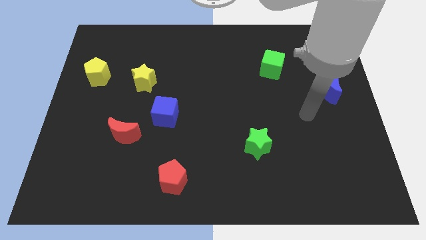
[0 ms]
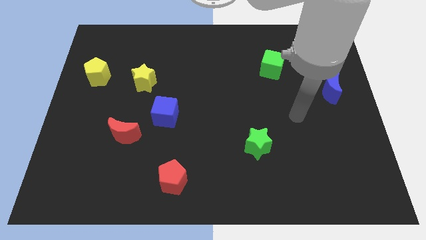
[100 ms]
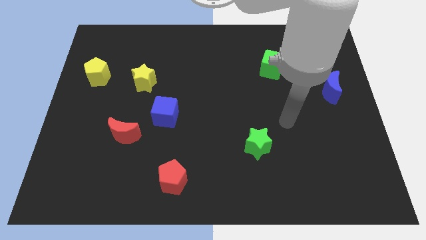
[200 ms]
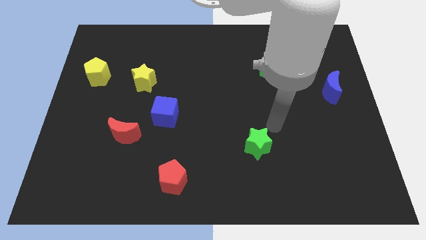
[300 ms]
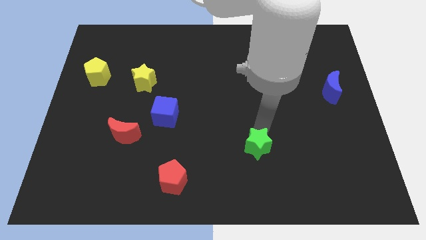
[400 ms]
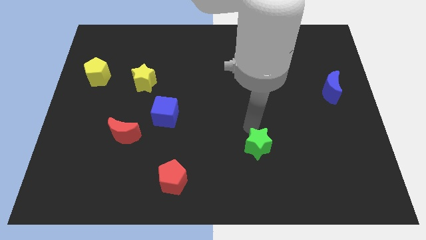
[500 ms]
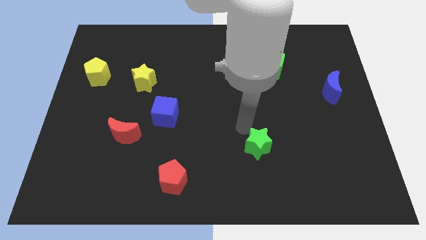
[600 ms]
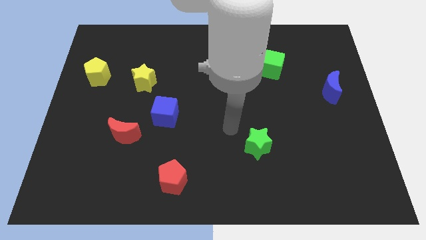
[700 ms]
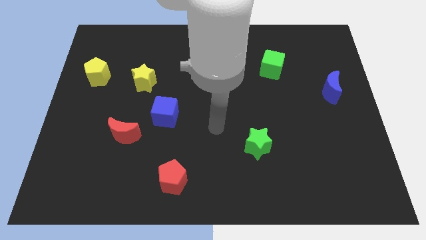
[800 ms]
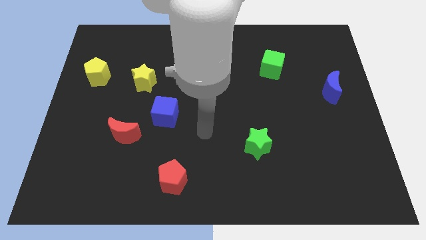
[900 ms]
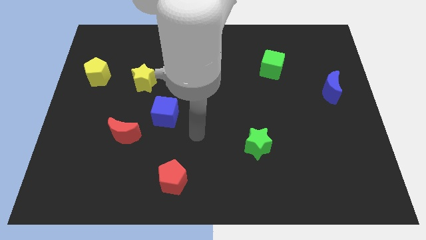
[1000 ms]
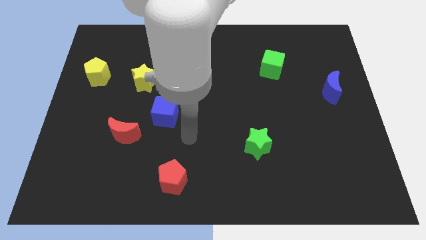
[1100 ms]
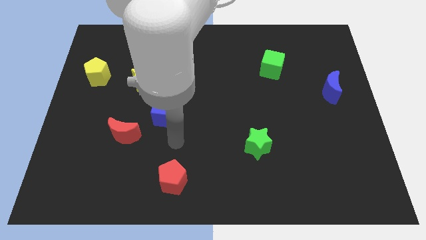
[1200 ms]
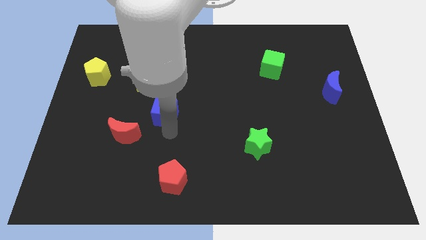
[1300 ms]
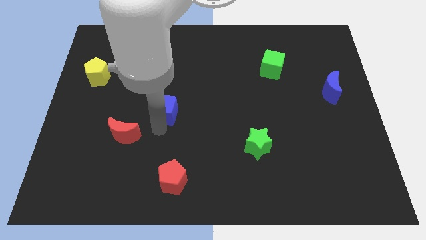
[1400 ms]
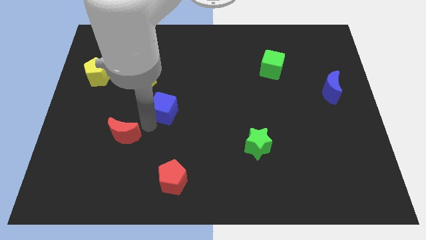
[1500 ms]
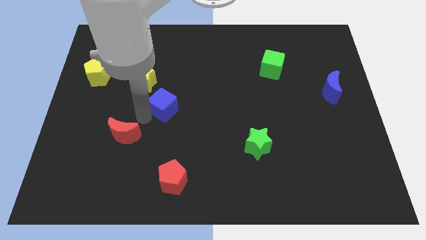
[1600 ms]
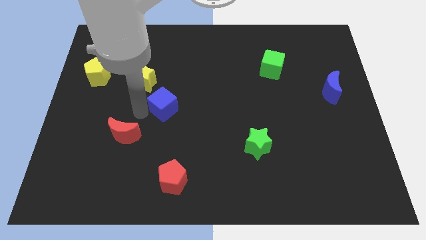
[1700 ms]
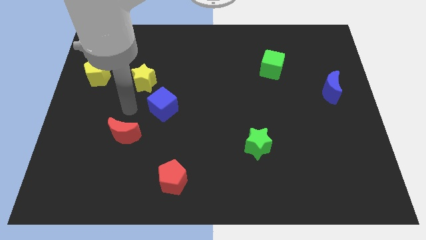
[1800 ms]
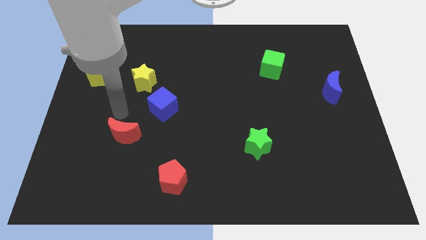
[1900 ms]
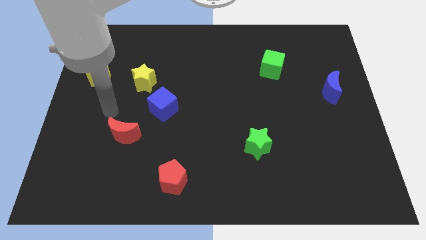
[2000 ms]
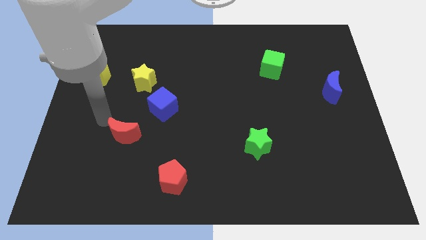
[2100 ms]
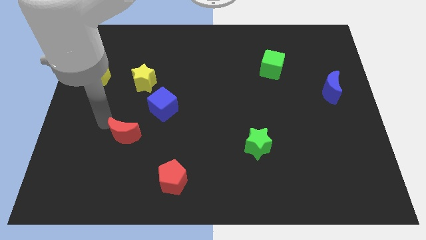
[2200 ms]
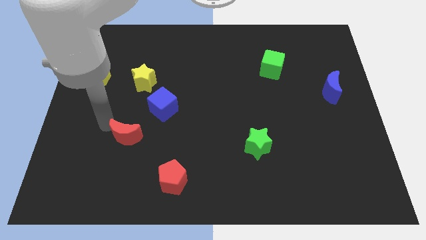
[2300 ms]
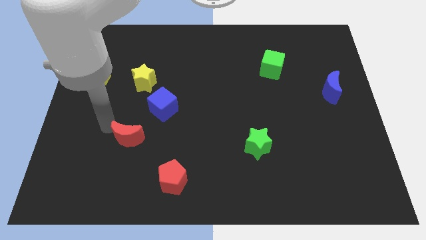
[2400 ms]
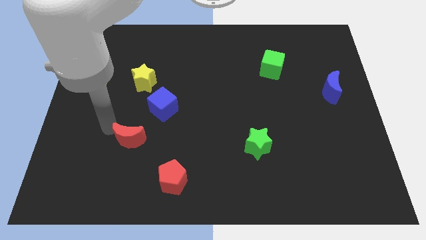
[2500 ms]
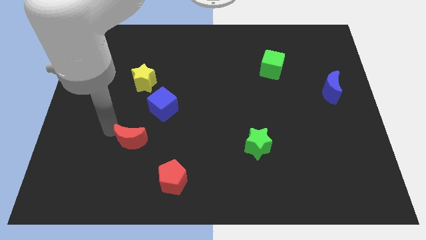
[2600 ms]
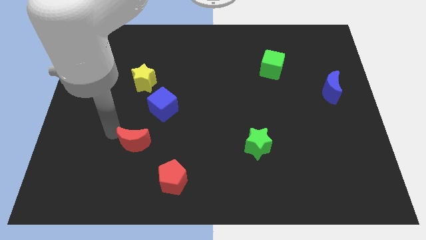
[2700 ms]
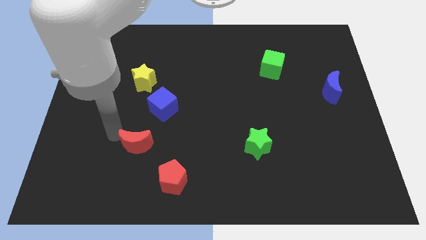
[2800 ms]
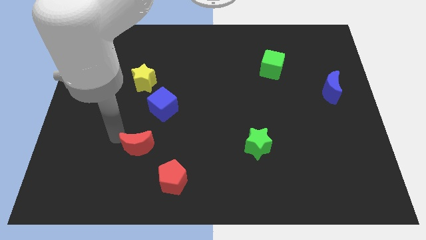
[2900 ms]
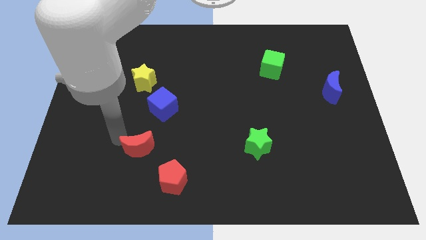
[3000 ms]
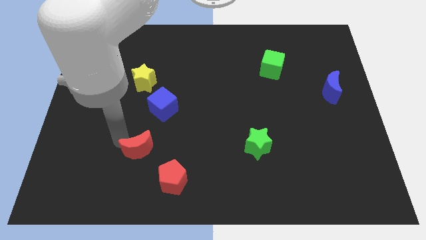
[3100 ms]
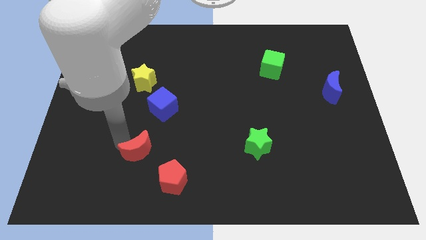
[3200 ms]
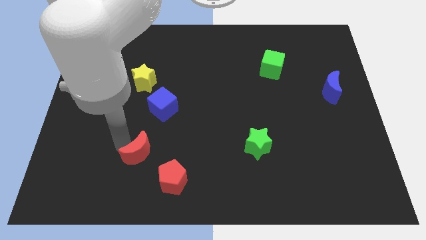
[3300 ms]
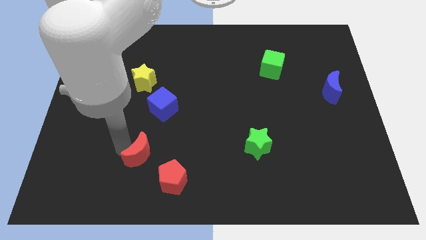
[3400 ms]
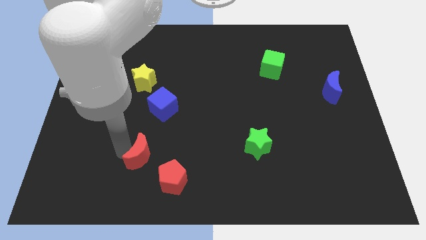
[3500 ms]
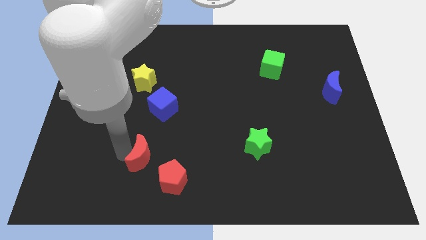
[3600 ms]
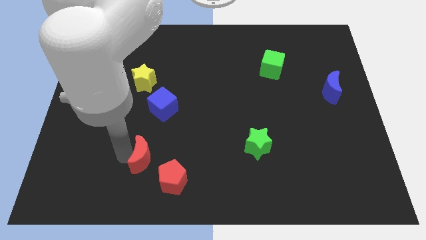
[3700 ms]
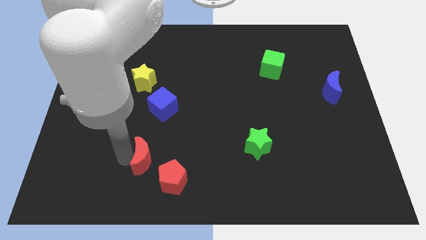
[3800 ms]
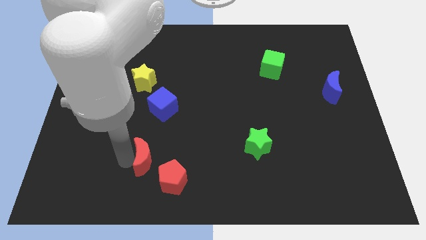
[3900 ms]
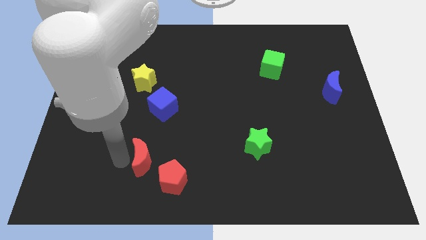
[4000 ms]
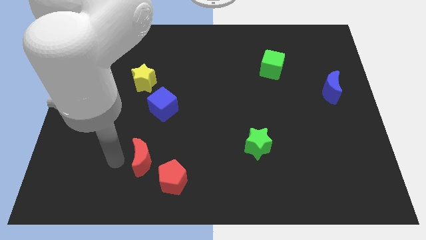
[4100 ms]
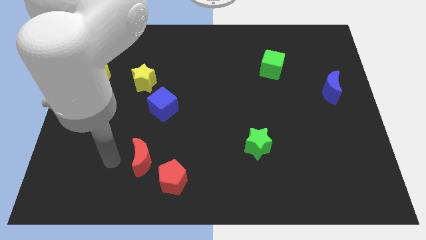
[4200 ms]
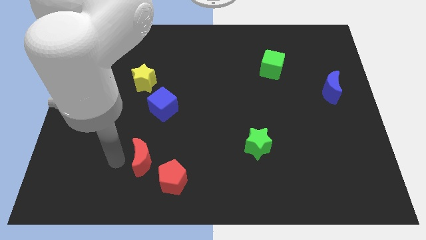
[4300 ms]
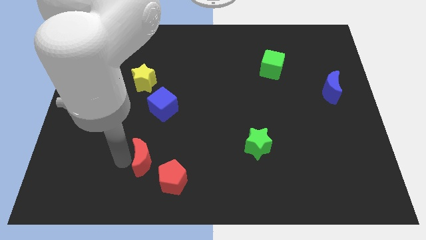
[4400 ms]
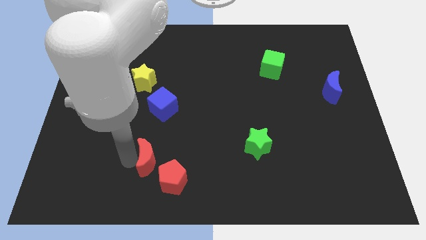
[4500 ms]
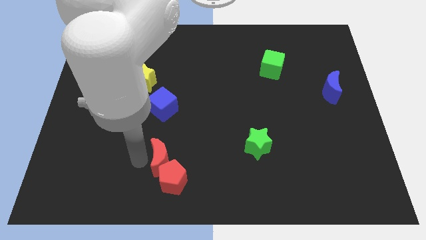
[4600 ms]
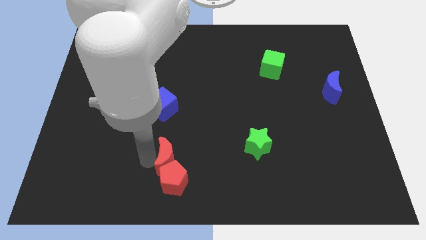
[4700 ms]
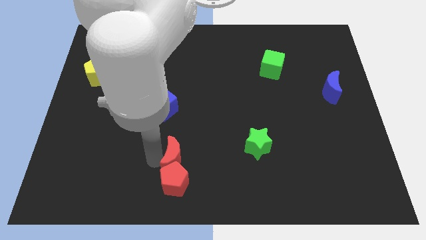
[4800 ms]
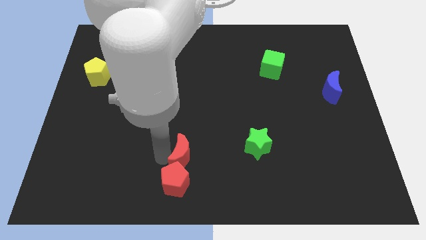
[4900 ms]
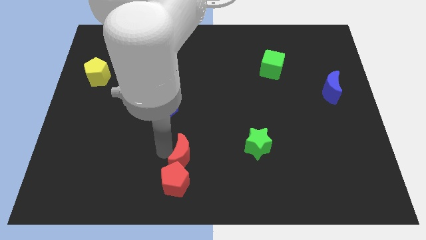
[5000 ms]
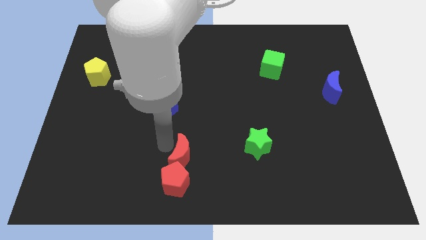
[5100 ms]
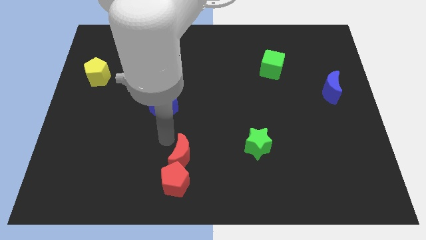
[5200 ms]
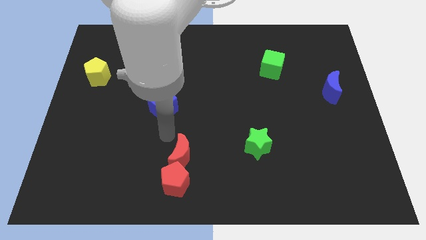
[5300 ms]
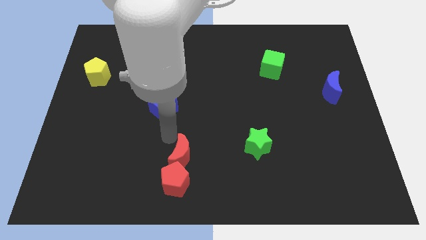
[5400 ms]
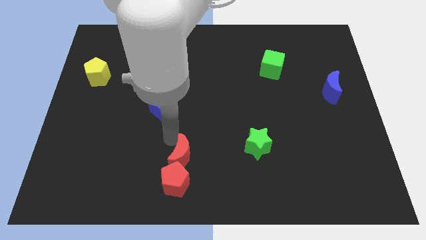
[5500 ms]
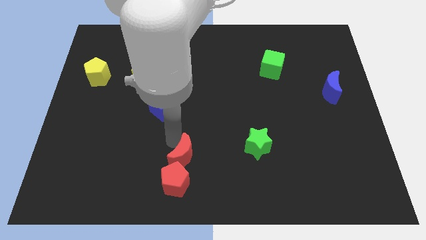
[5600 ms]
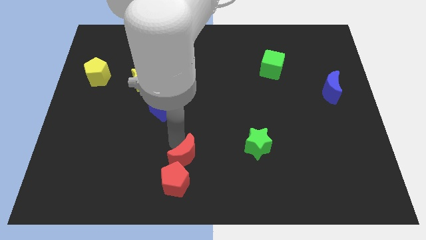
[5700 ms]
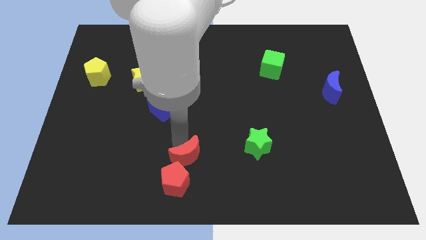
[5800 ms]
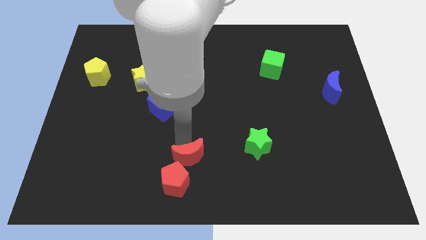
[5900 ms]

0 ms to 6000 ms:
put the red moon to the bottom side
